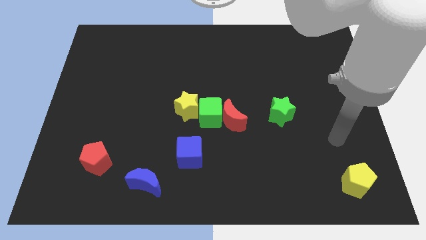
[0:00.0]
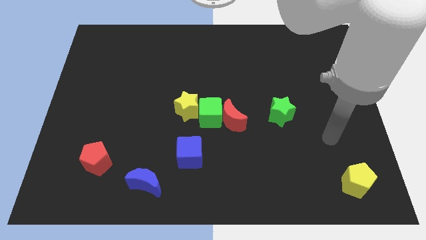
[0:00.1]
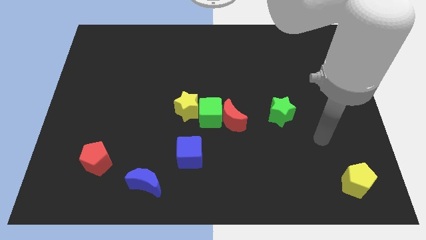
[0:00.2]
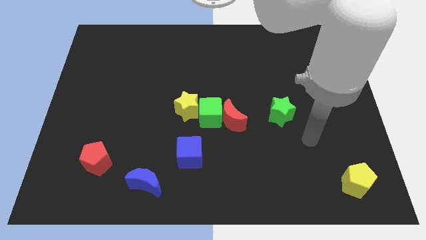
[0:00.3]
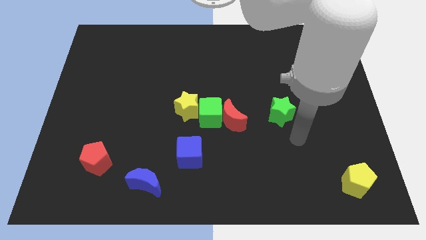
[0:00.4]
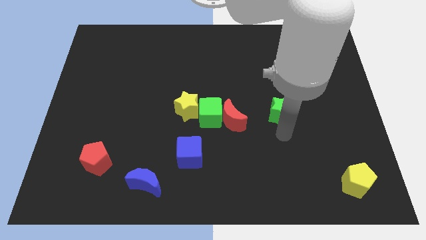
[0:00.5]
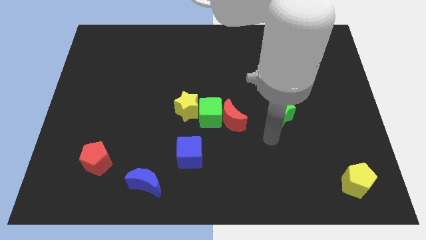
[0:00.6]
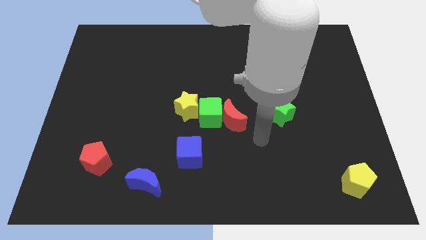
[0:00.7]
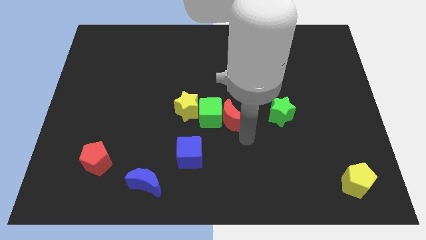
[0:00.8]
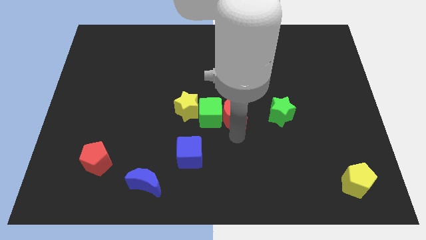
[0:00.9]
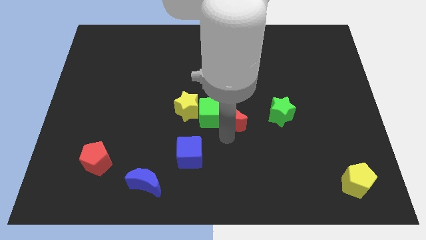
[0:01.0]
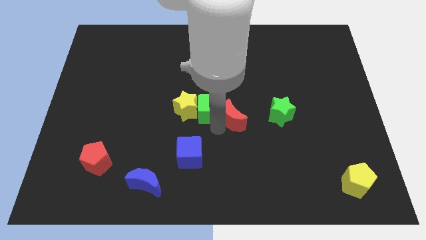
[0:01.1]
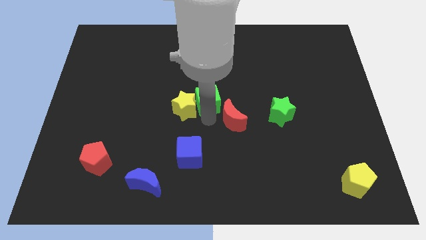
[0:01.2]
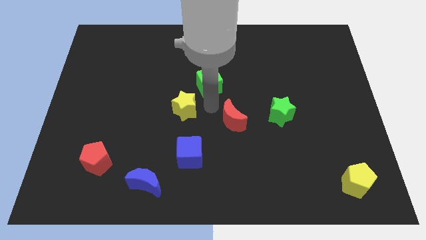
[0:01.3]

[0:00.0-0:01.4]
separate the red moon from the green cube

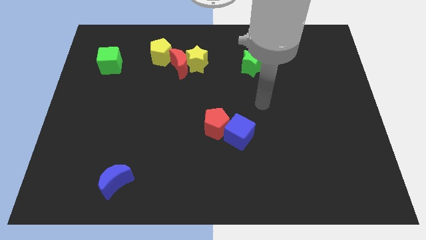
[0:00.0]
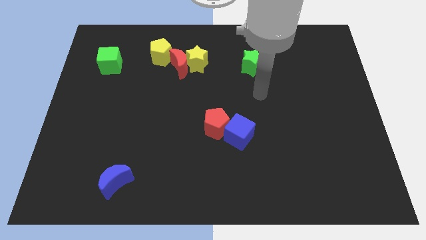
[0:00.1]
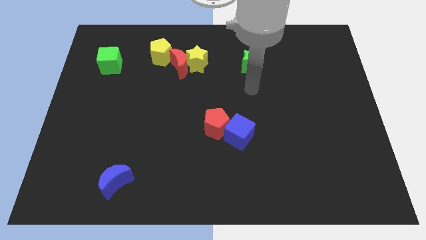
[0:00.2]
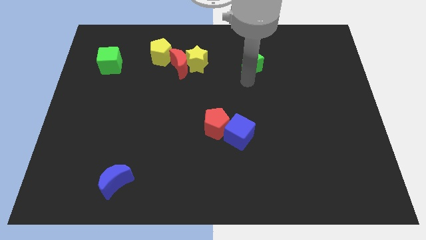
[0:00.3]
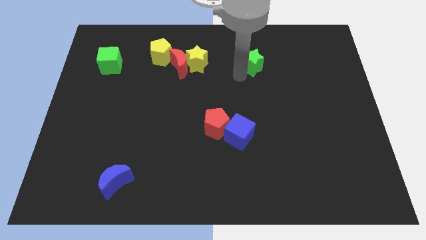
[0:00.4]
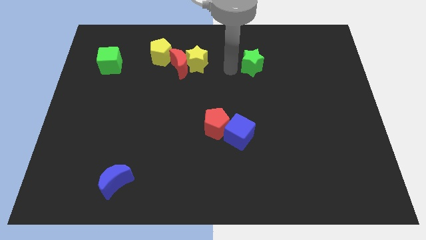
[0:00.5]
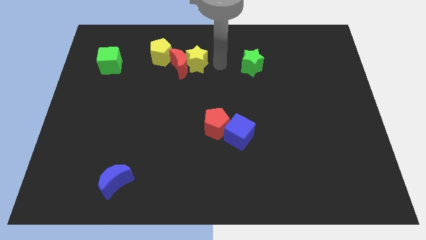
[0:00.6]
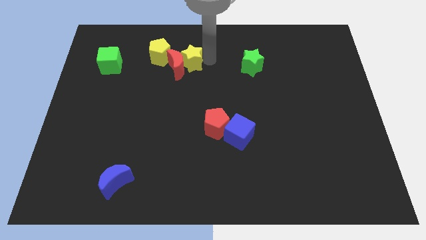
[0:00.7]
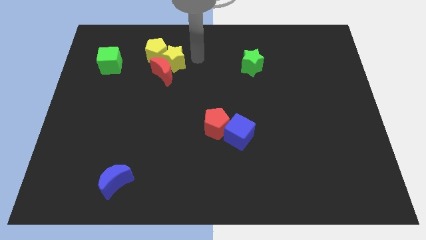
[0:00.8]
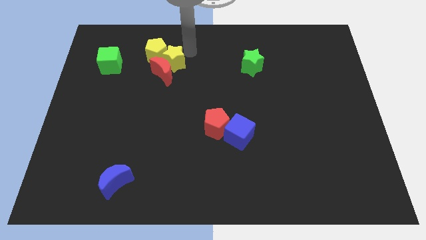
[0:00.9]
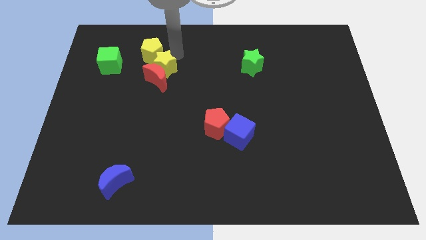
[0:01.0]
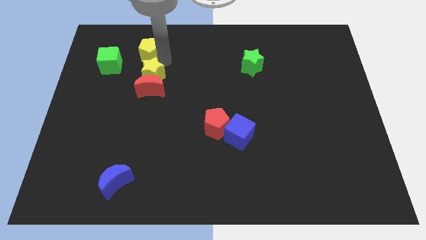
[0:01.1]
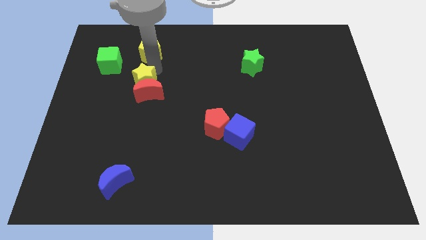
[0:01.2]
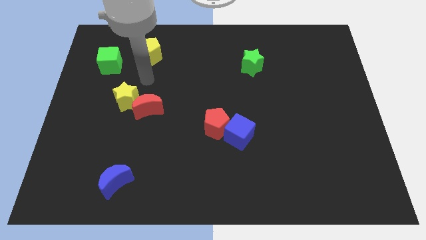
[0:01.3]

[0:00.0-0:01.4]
pull the red moon apart from the yellow star and yellow pentagon

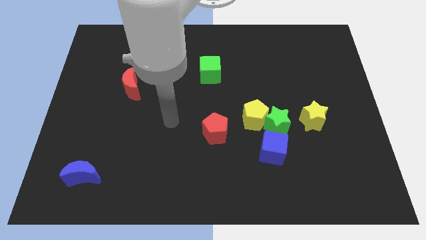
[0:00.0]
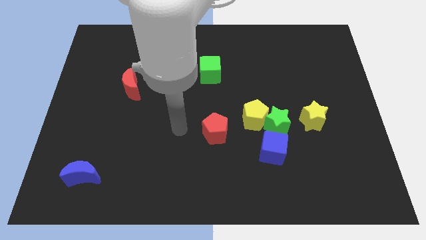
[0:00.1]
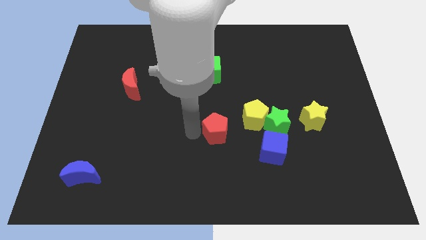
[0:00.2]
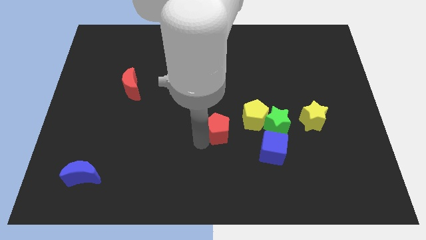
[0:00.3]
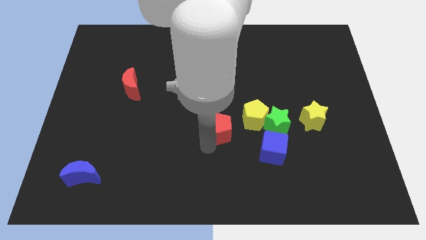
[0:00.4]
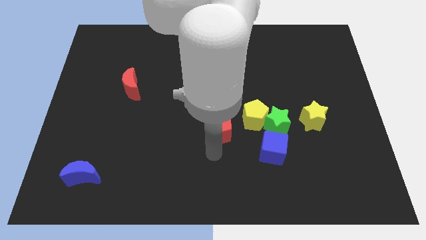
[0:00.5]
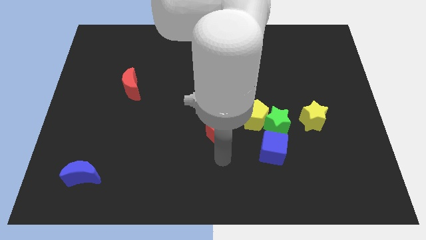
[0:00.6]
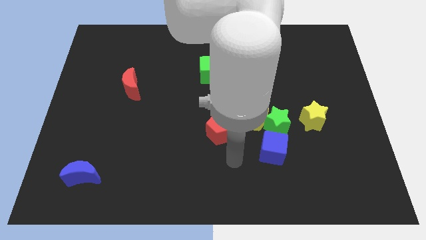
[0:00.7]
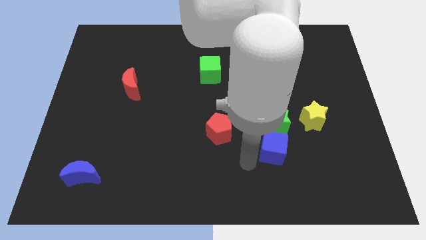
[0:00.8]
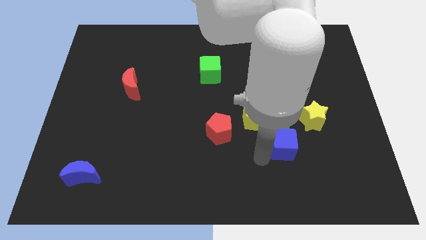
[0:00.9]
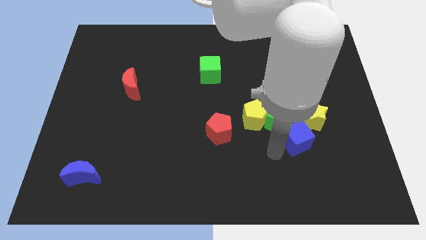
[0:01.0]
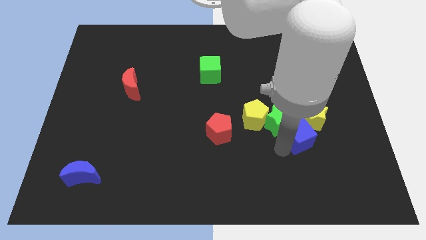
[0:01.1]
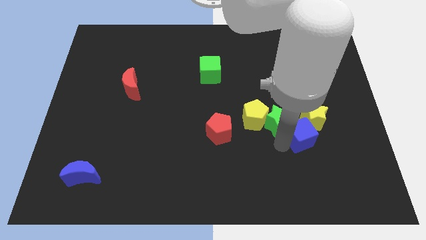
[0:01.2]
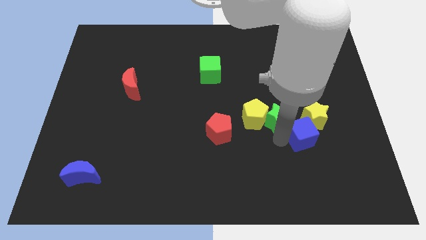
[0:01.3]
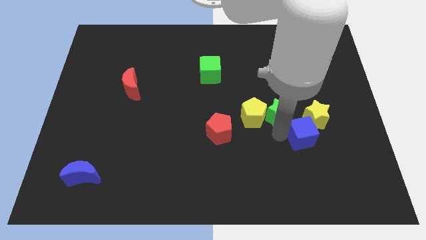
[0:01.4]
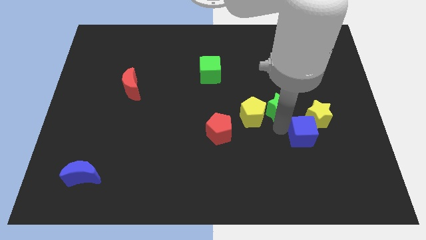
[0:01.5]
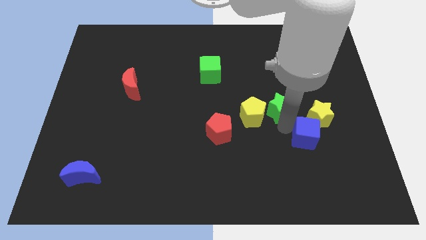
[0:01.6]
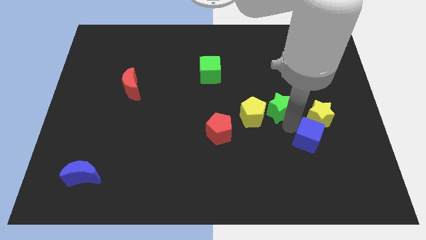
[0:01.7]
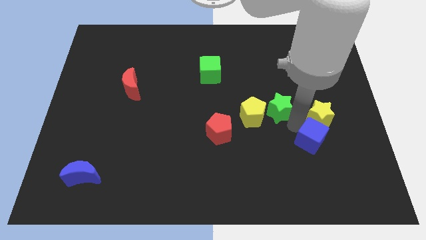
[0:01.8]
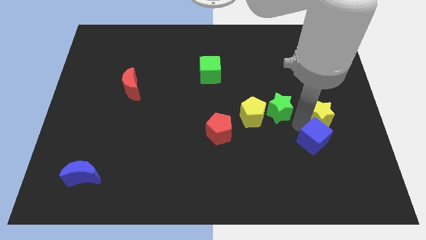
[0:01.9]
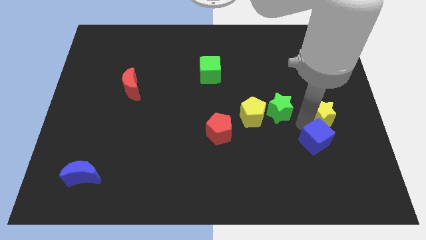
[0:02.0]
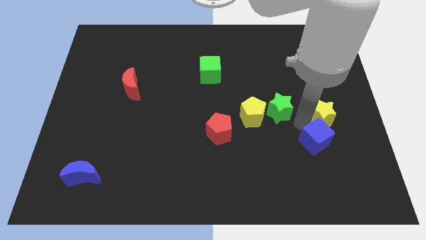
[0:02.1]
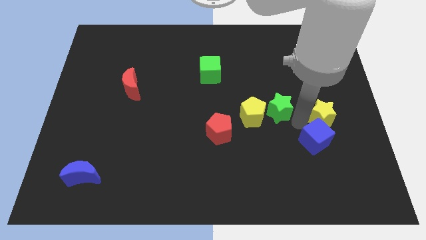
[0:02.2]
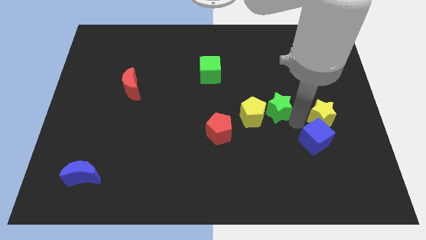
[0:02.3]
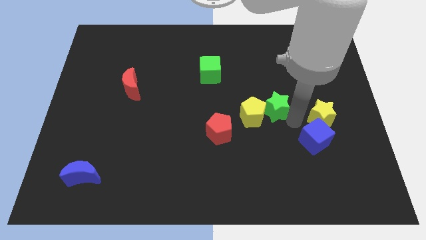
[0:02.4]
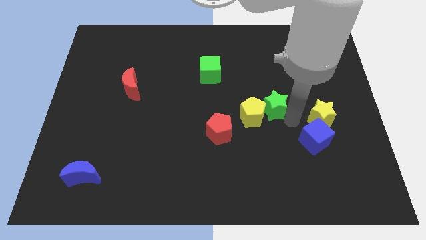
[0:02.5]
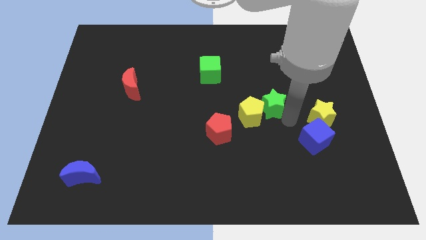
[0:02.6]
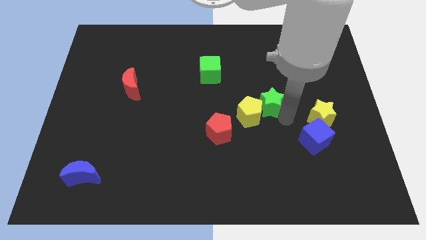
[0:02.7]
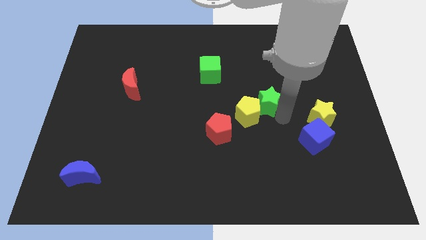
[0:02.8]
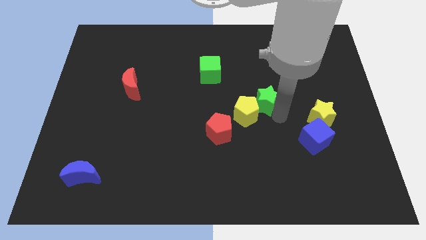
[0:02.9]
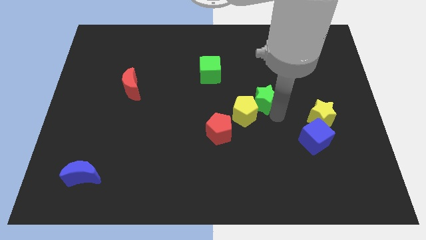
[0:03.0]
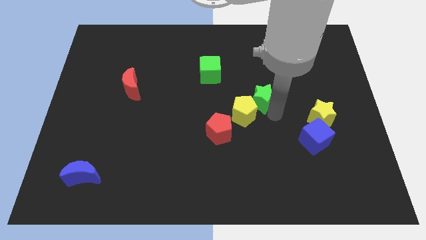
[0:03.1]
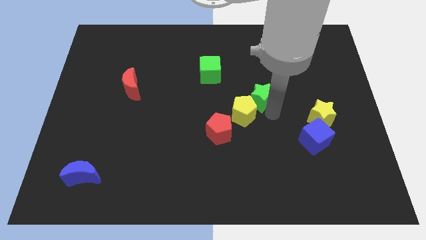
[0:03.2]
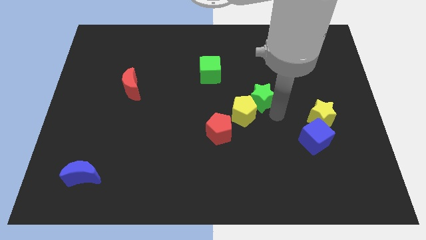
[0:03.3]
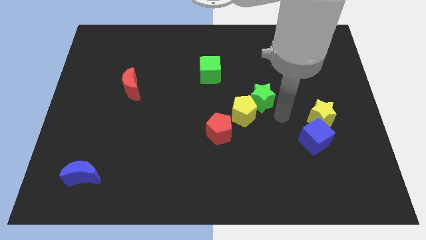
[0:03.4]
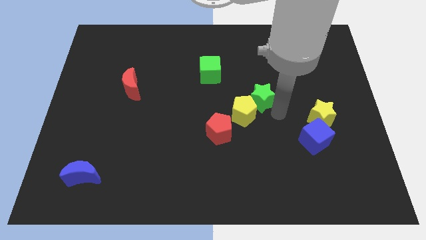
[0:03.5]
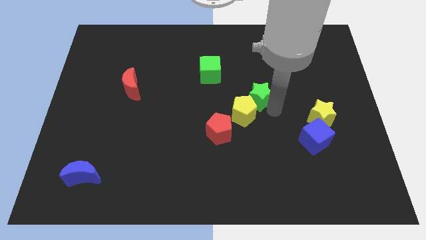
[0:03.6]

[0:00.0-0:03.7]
pull the green star apart from the group

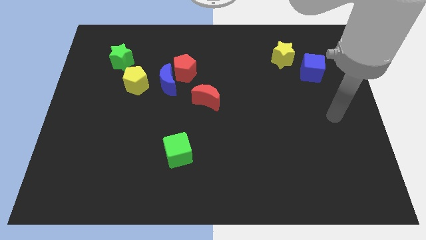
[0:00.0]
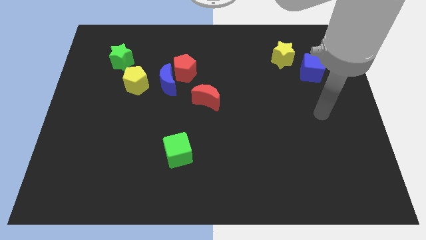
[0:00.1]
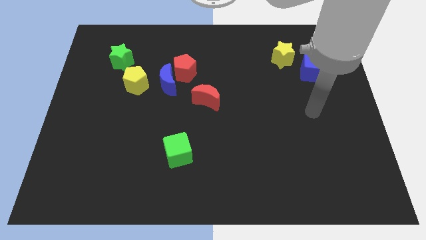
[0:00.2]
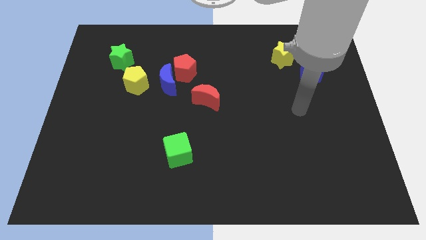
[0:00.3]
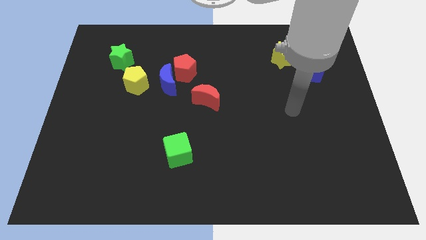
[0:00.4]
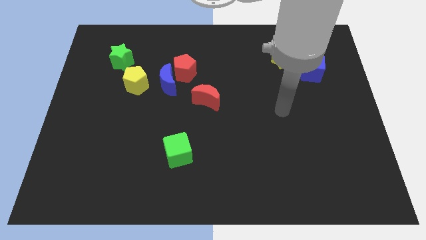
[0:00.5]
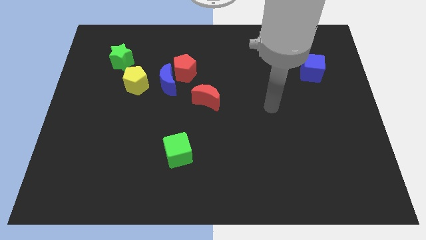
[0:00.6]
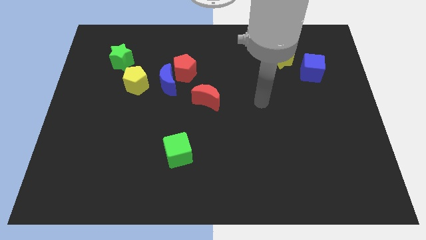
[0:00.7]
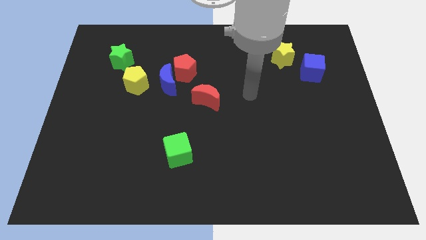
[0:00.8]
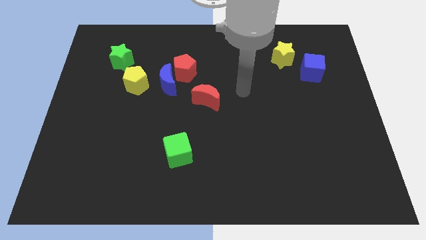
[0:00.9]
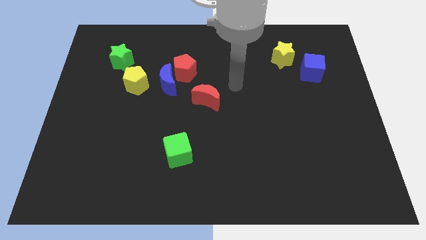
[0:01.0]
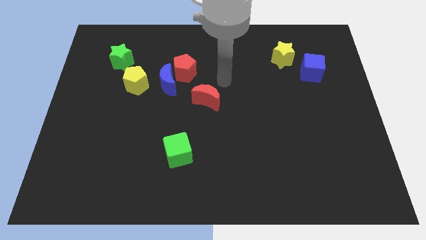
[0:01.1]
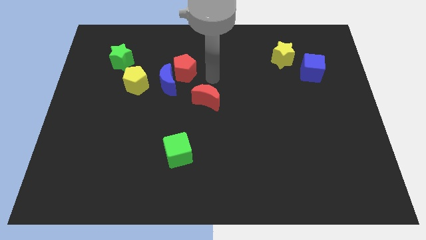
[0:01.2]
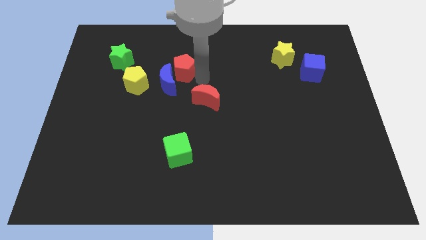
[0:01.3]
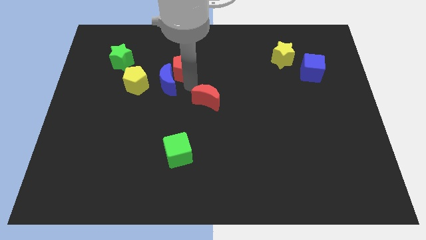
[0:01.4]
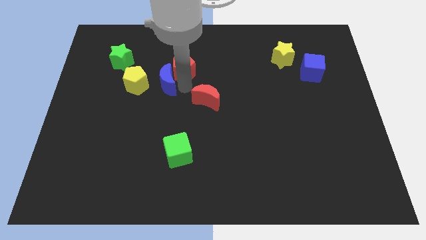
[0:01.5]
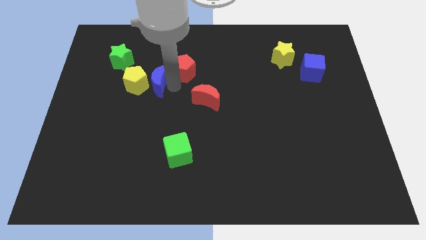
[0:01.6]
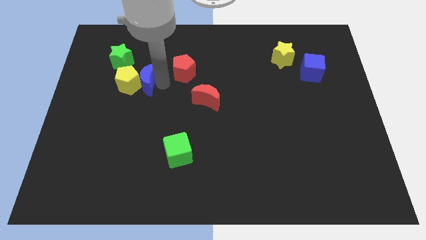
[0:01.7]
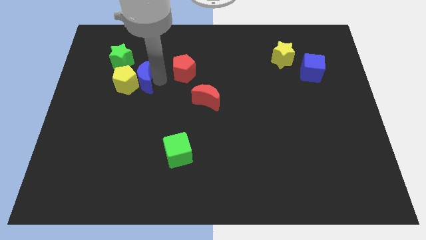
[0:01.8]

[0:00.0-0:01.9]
pull the red pentagon apart from the blue moon

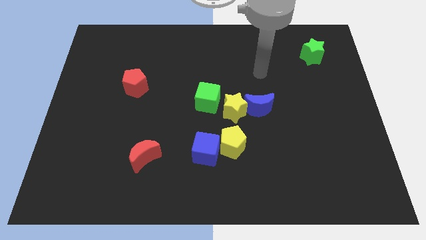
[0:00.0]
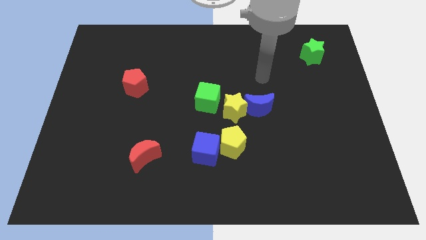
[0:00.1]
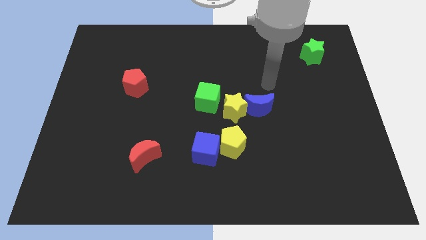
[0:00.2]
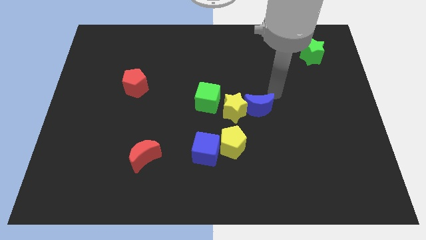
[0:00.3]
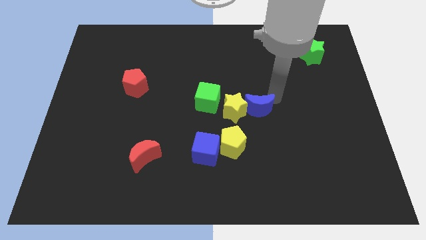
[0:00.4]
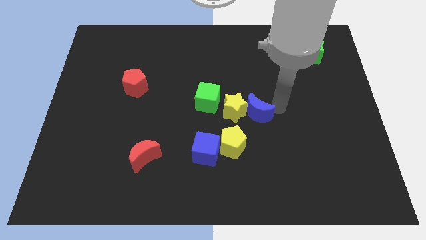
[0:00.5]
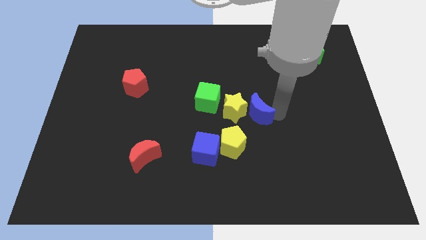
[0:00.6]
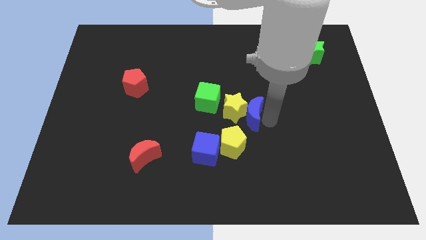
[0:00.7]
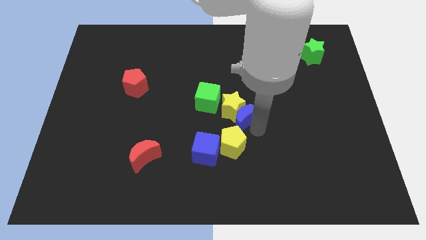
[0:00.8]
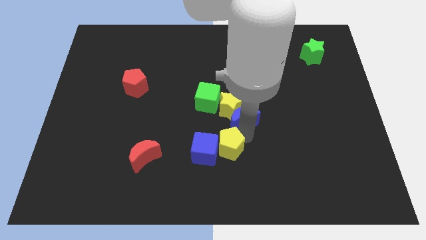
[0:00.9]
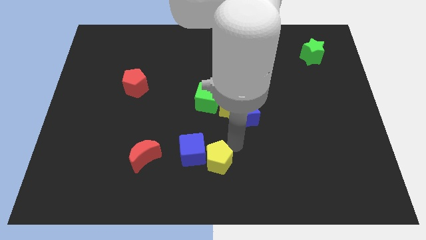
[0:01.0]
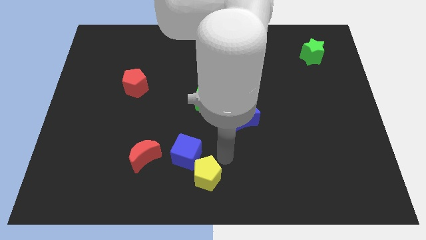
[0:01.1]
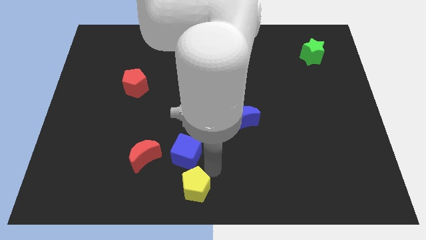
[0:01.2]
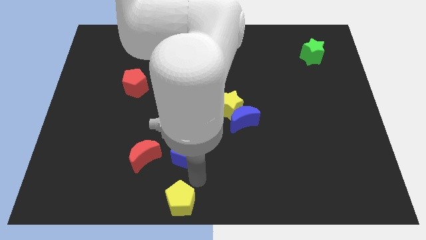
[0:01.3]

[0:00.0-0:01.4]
pull the blue cube apart from the yellow pentagon
